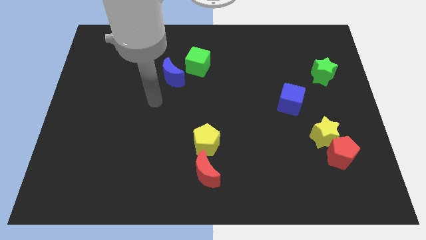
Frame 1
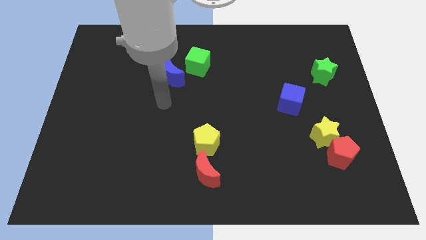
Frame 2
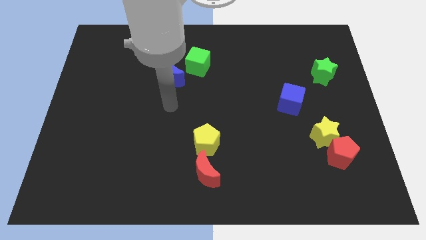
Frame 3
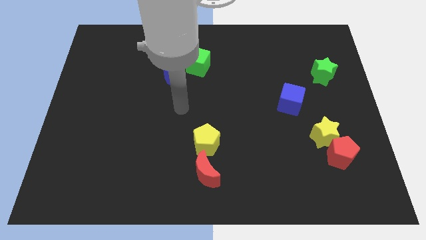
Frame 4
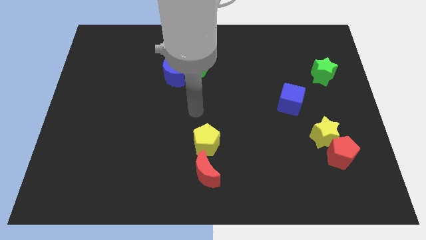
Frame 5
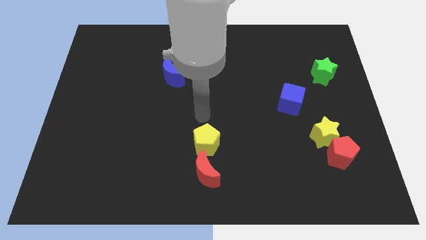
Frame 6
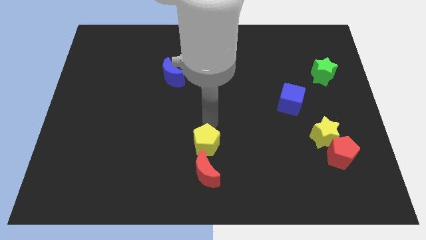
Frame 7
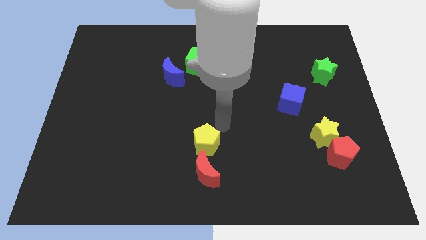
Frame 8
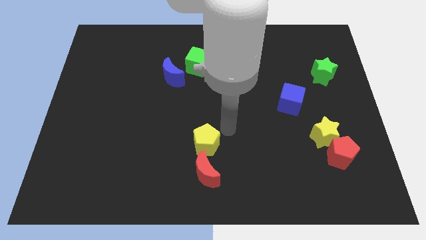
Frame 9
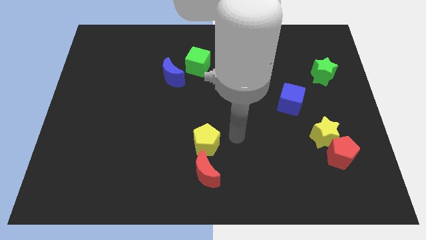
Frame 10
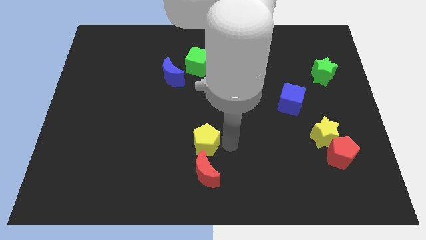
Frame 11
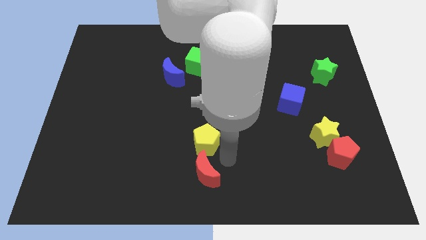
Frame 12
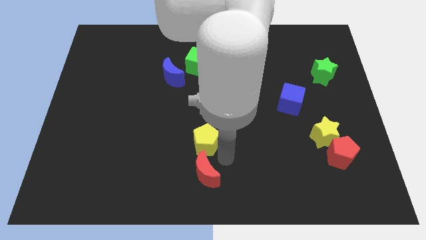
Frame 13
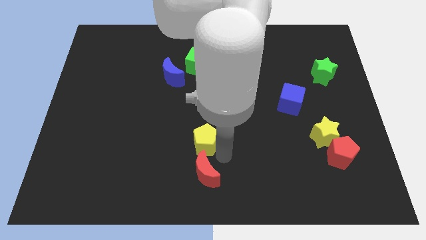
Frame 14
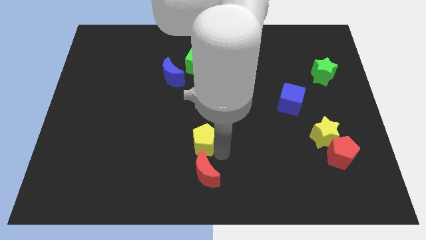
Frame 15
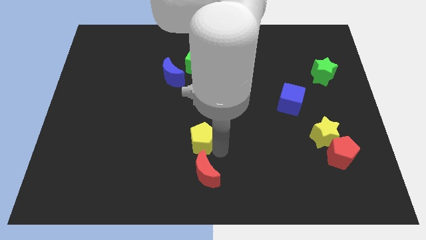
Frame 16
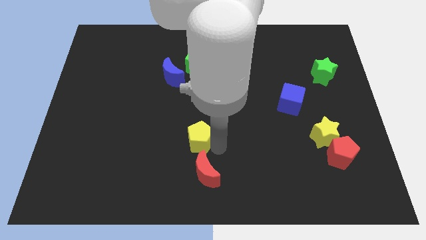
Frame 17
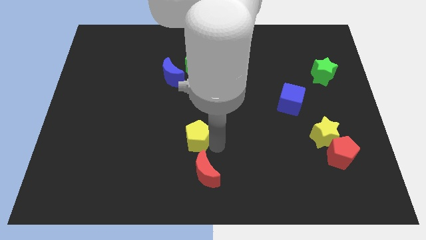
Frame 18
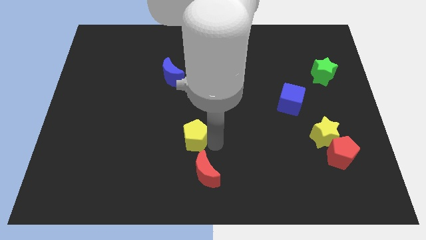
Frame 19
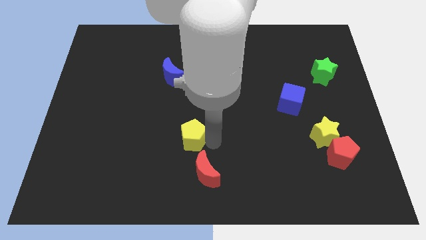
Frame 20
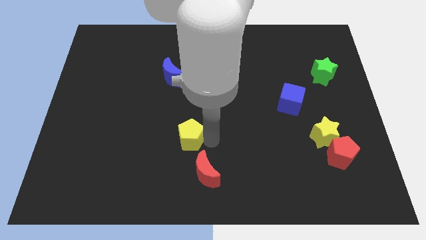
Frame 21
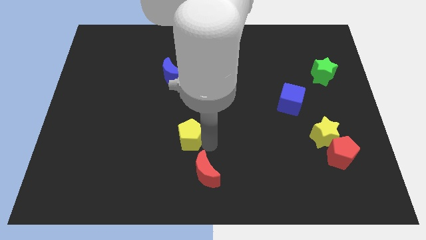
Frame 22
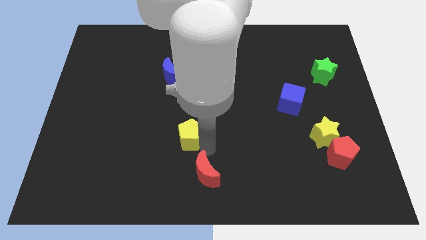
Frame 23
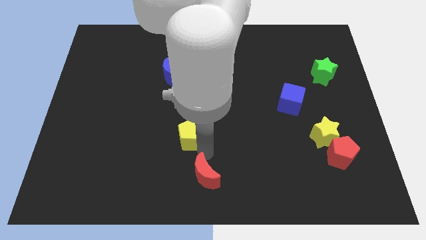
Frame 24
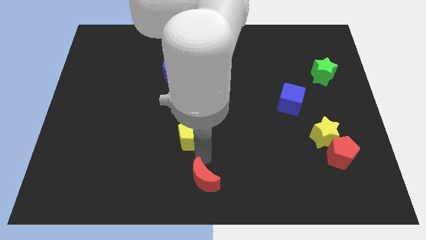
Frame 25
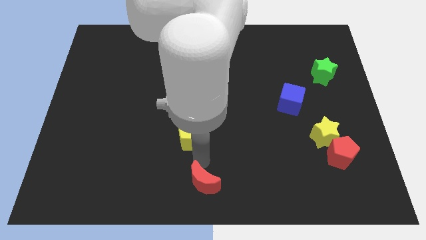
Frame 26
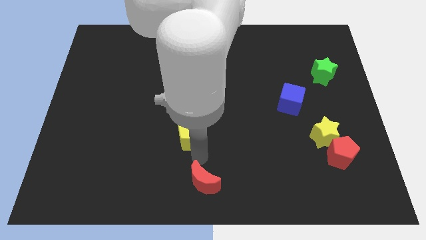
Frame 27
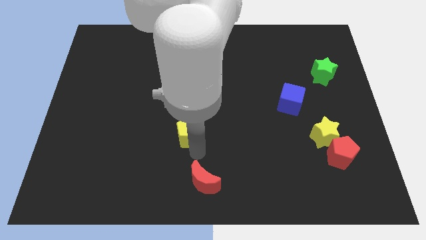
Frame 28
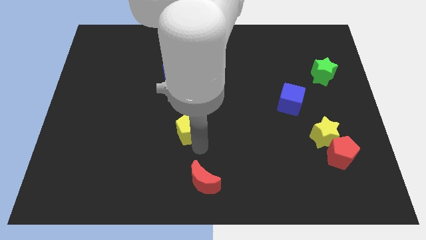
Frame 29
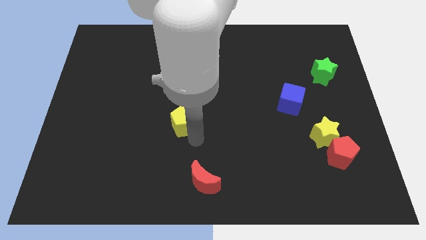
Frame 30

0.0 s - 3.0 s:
push the yellow pentagon up and then to the left slightly

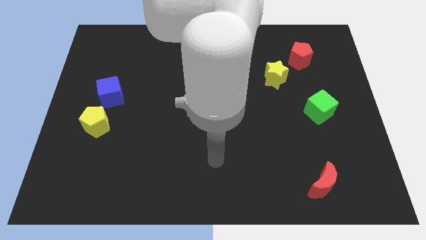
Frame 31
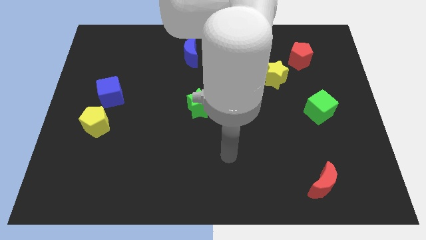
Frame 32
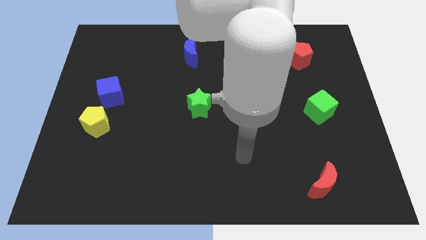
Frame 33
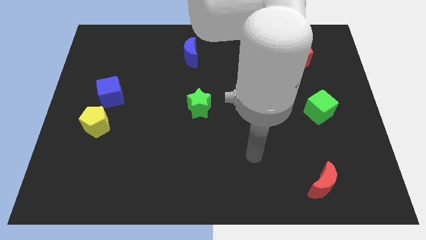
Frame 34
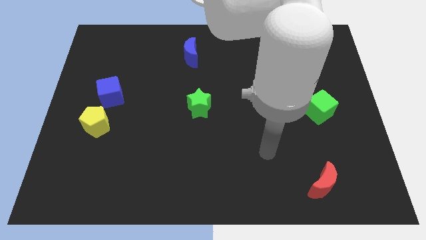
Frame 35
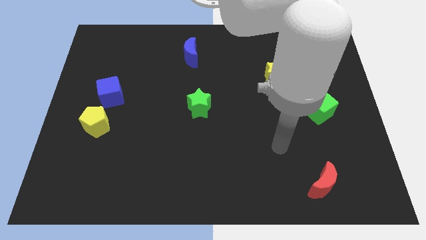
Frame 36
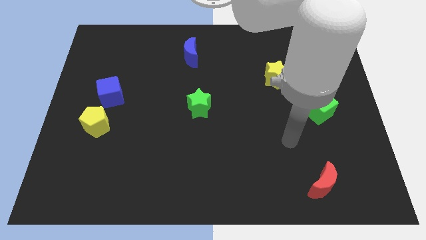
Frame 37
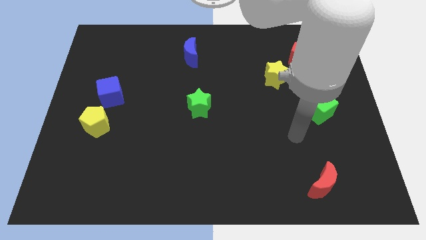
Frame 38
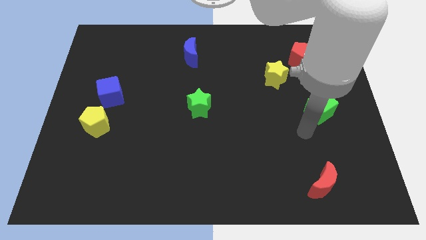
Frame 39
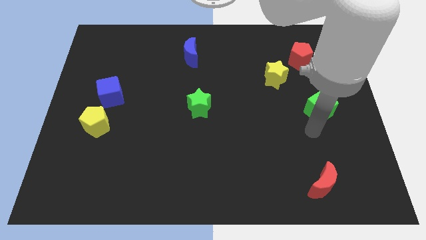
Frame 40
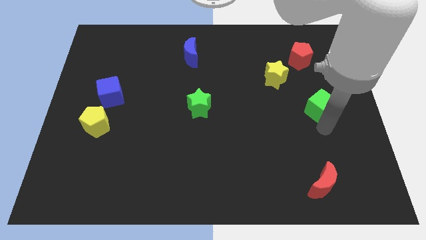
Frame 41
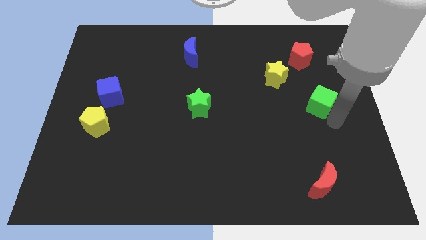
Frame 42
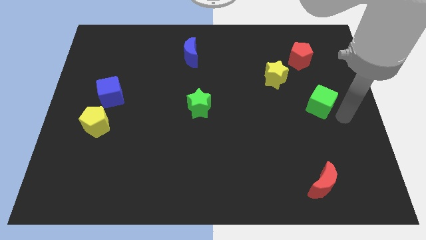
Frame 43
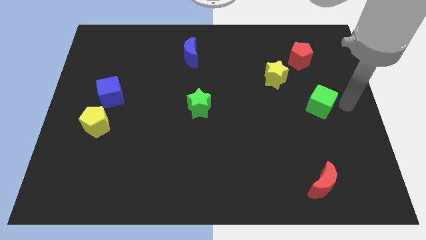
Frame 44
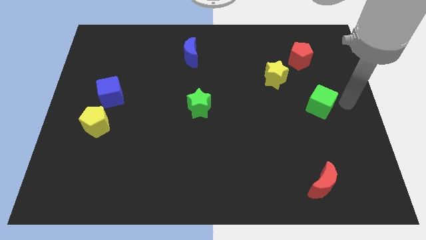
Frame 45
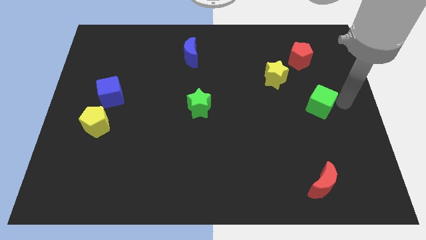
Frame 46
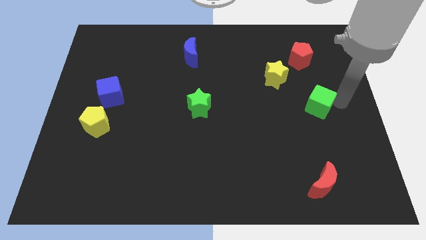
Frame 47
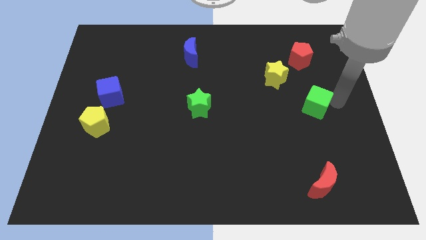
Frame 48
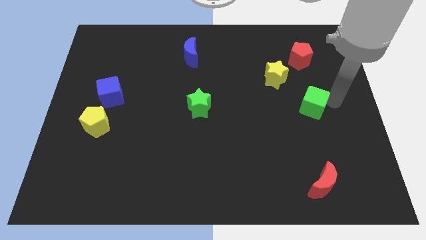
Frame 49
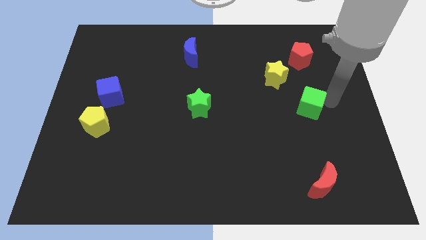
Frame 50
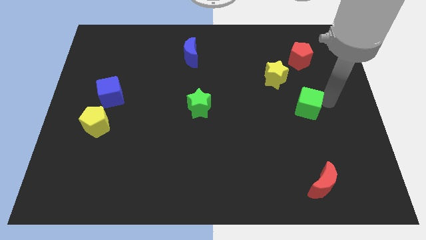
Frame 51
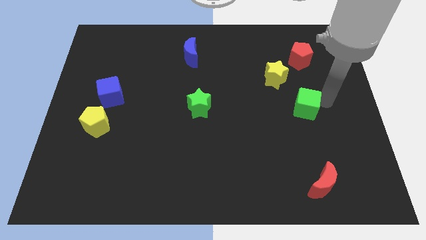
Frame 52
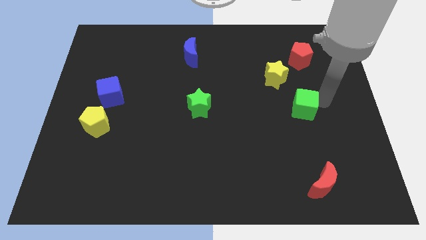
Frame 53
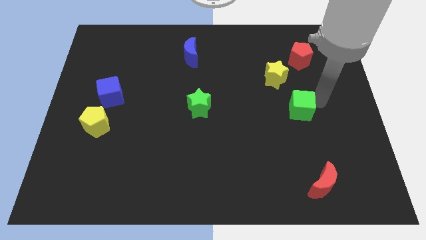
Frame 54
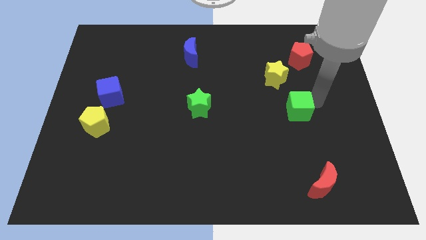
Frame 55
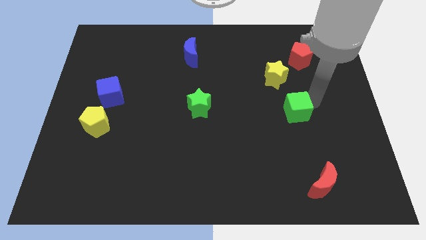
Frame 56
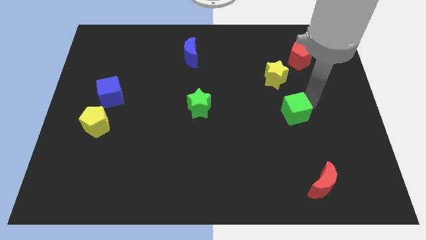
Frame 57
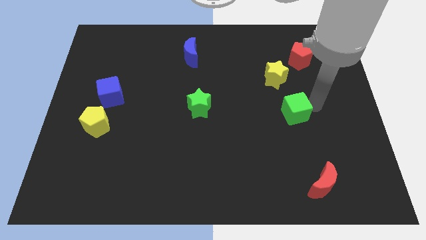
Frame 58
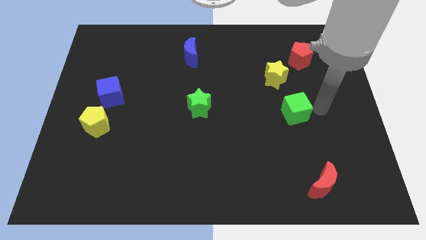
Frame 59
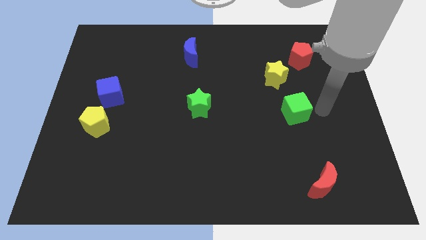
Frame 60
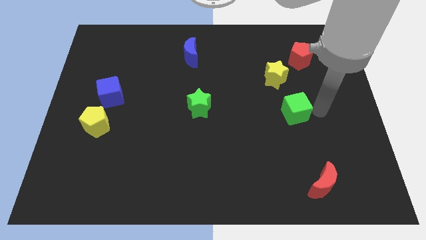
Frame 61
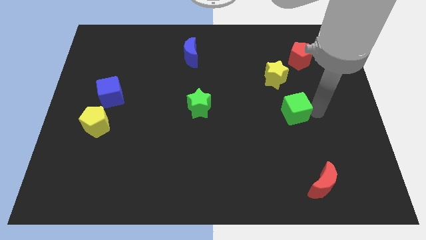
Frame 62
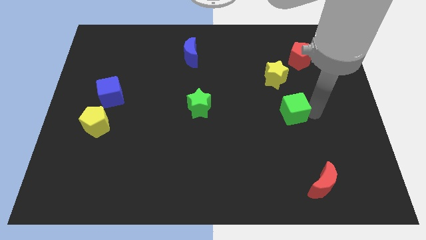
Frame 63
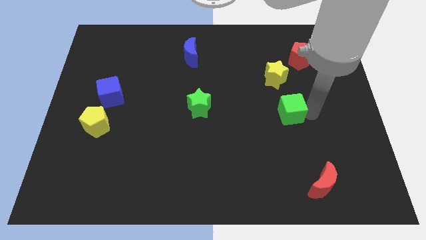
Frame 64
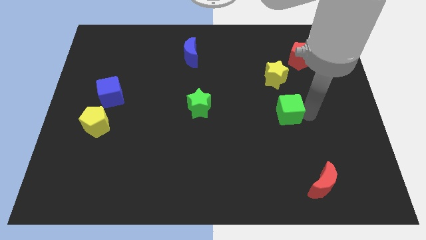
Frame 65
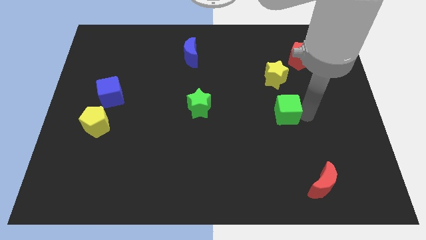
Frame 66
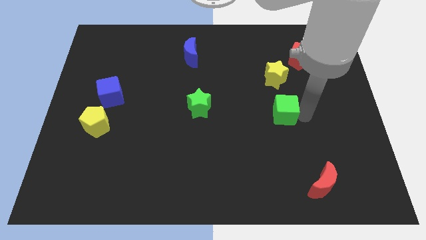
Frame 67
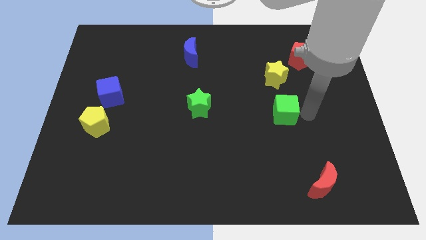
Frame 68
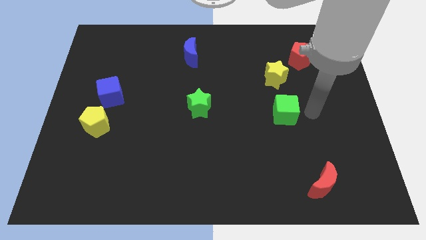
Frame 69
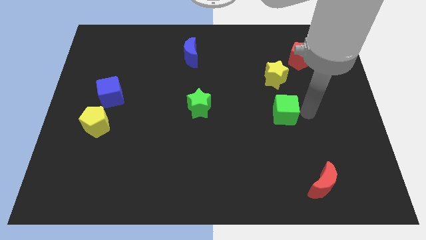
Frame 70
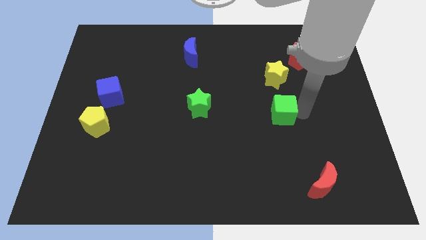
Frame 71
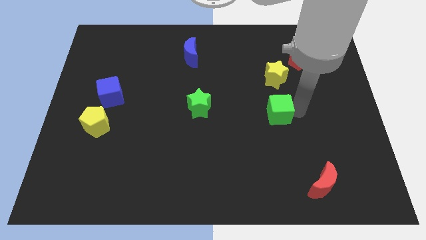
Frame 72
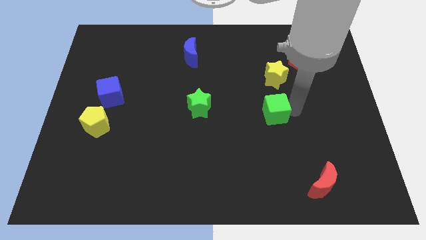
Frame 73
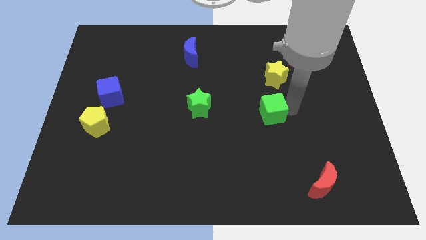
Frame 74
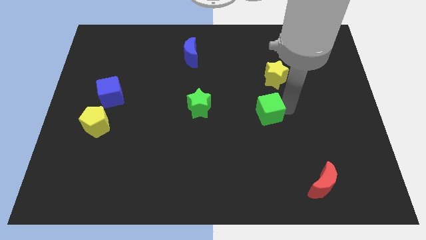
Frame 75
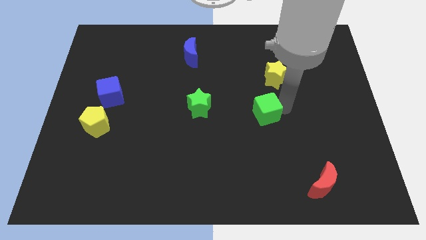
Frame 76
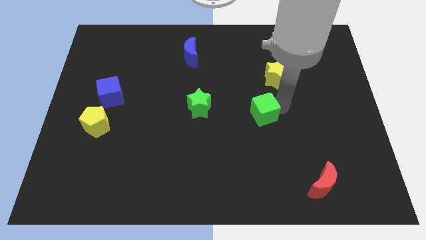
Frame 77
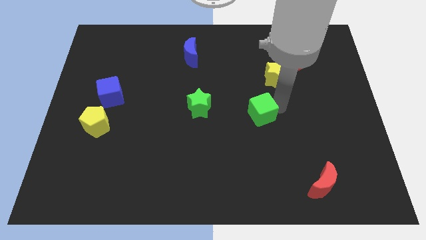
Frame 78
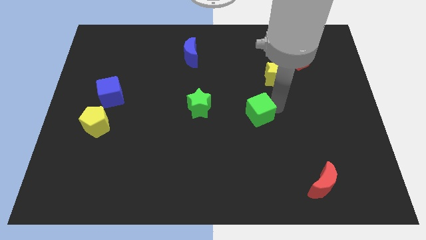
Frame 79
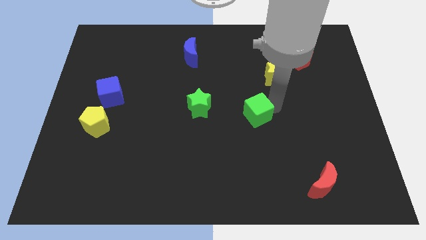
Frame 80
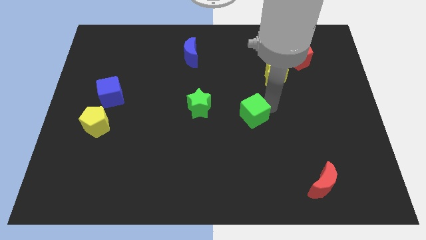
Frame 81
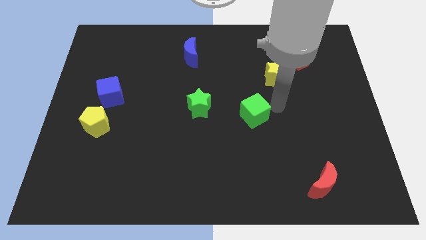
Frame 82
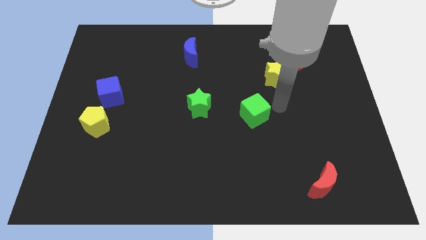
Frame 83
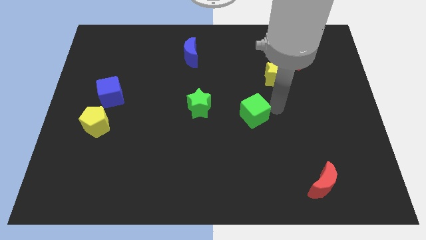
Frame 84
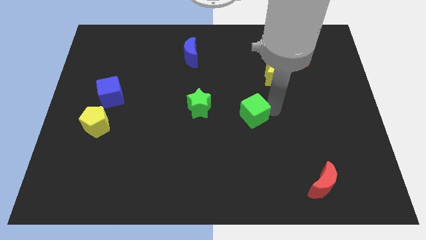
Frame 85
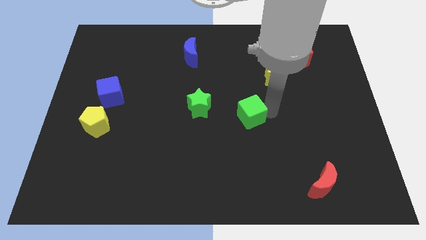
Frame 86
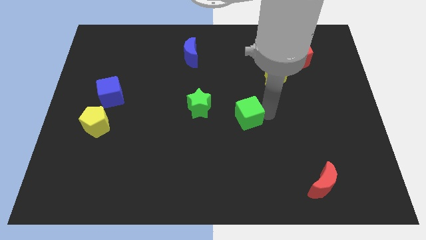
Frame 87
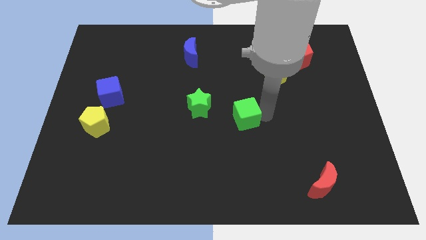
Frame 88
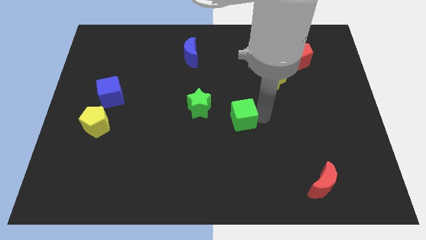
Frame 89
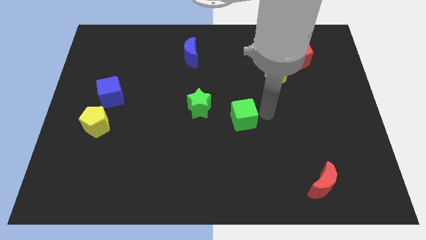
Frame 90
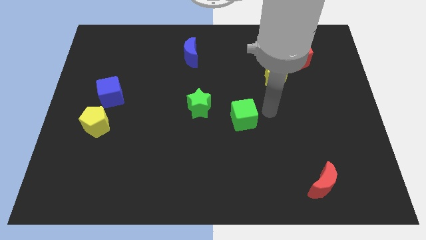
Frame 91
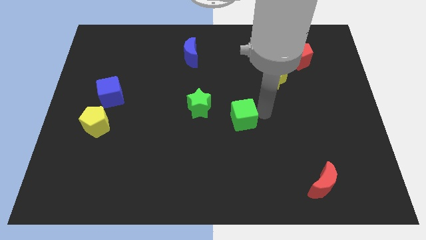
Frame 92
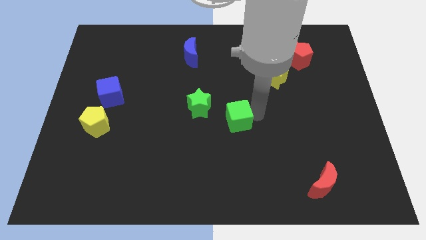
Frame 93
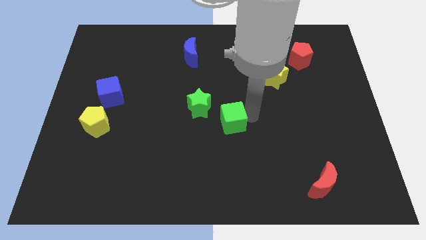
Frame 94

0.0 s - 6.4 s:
push the green cube left
